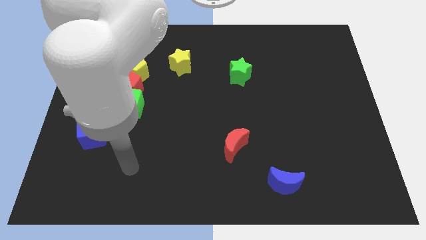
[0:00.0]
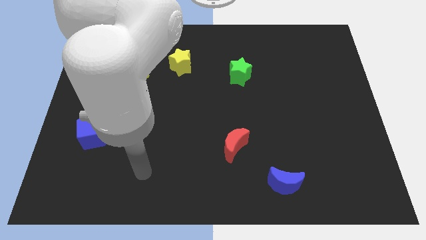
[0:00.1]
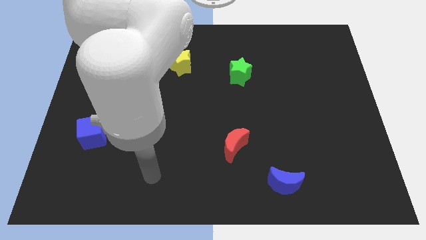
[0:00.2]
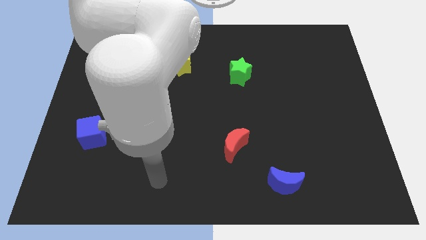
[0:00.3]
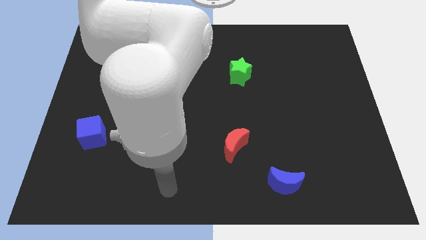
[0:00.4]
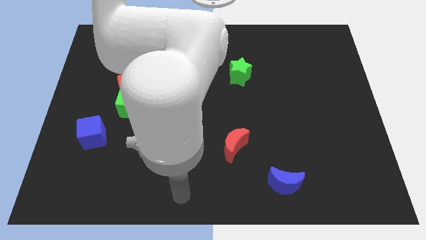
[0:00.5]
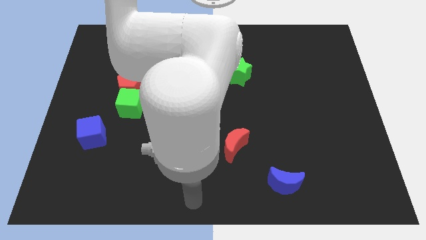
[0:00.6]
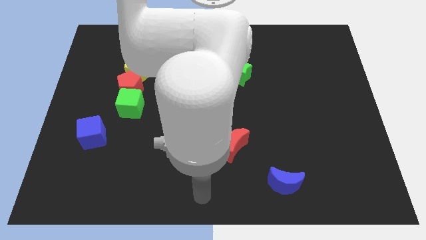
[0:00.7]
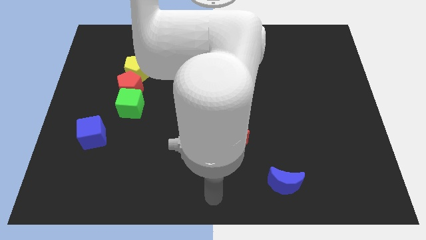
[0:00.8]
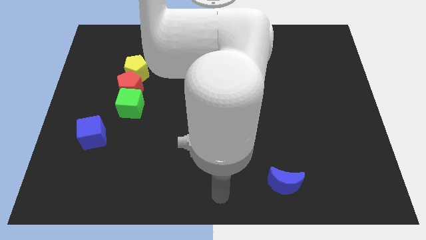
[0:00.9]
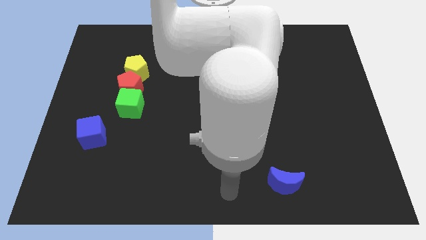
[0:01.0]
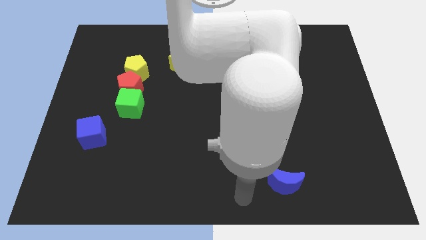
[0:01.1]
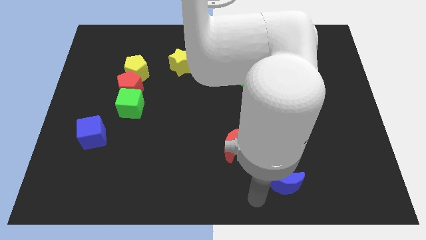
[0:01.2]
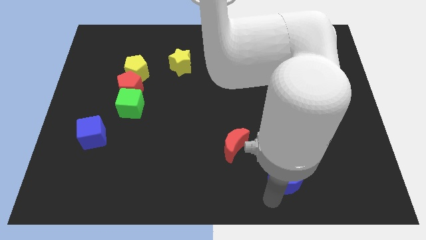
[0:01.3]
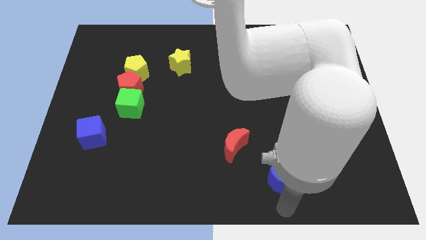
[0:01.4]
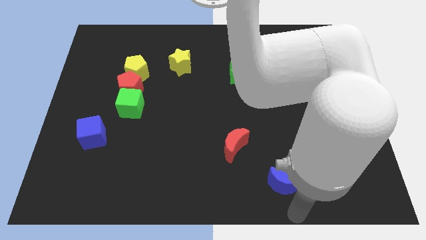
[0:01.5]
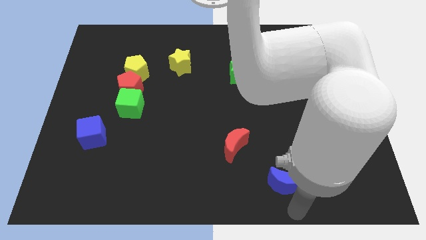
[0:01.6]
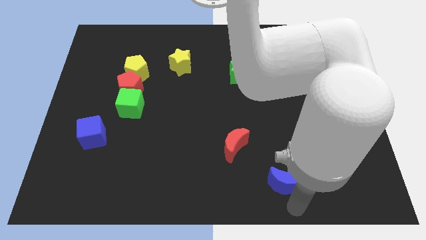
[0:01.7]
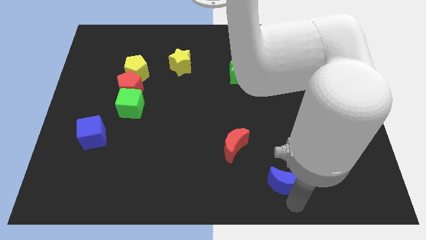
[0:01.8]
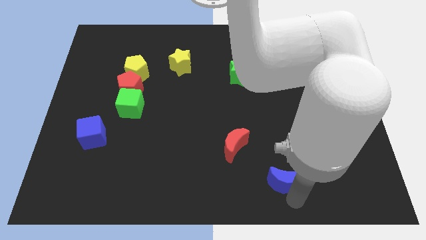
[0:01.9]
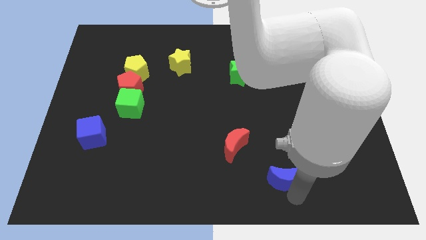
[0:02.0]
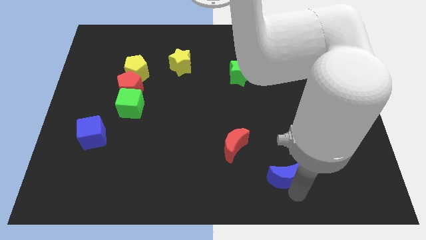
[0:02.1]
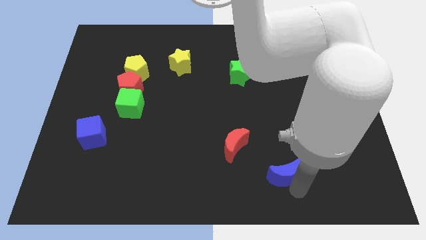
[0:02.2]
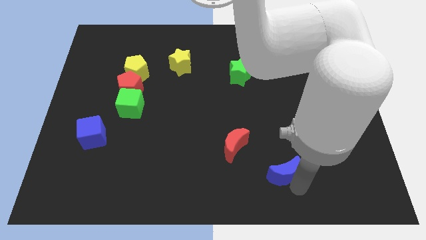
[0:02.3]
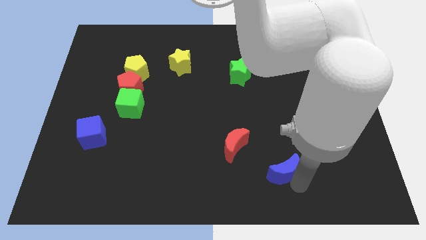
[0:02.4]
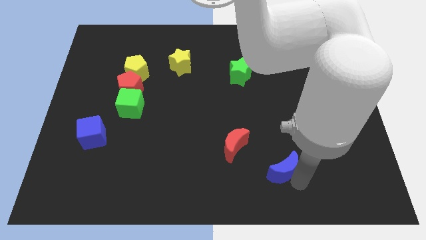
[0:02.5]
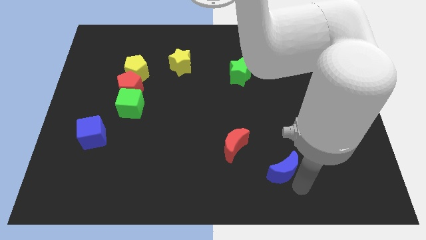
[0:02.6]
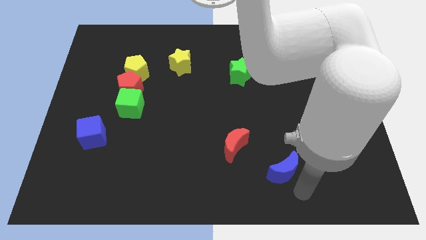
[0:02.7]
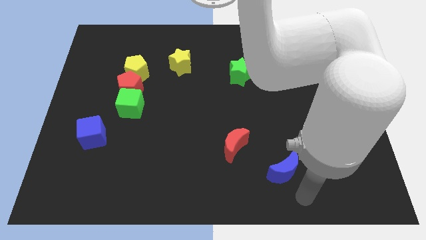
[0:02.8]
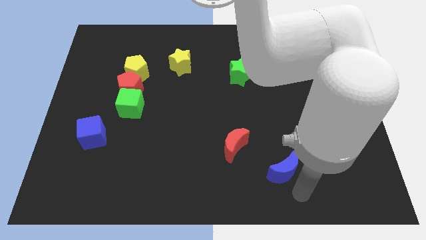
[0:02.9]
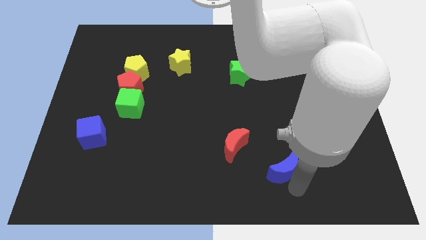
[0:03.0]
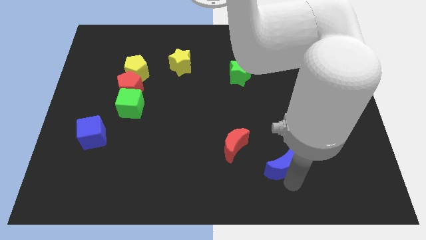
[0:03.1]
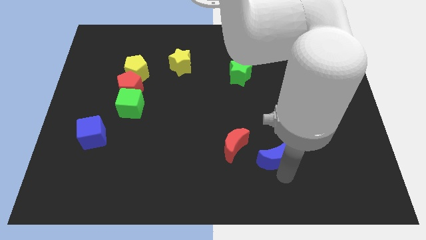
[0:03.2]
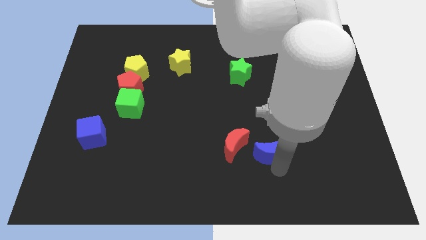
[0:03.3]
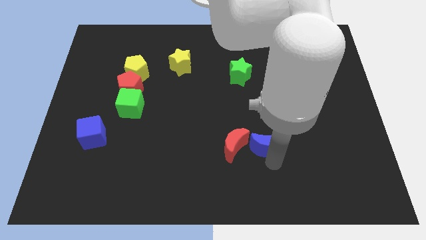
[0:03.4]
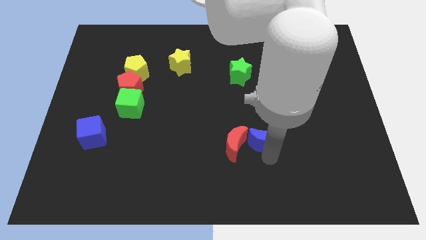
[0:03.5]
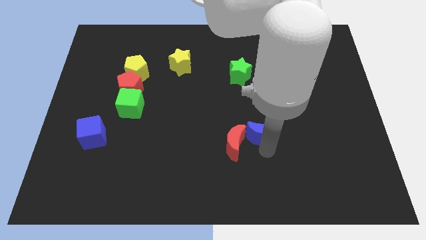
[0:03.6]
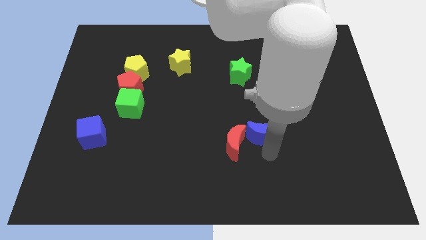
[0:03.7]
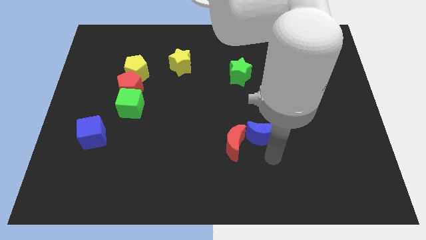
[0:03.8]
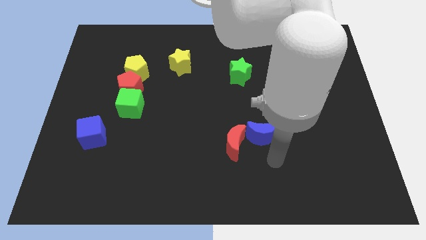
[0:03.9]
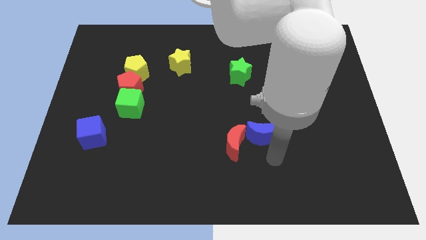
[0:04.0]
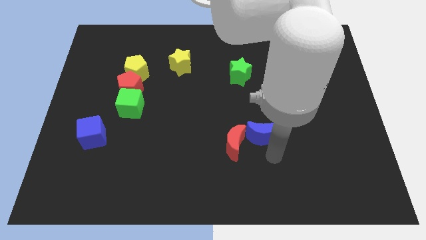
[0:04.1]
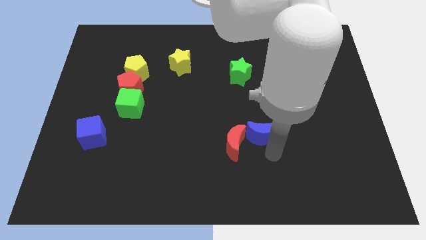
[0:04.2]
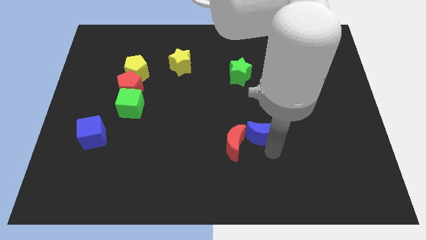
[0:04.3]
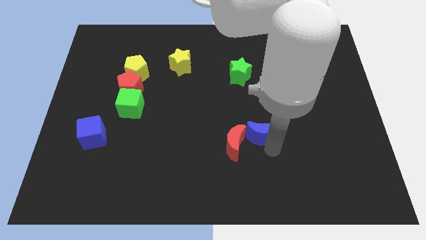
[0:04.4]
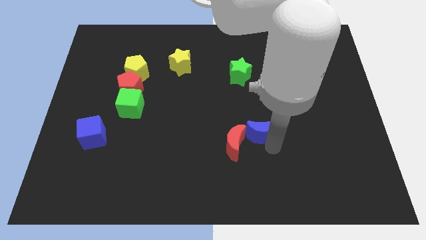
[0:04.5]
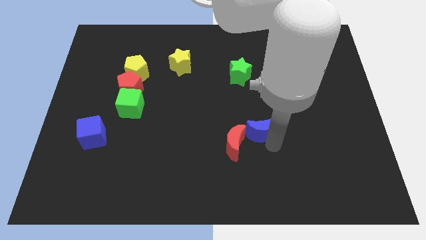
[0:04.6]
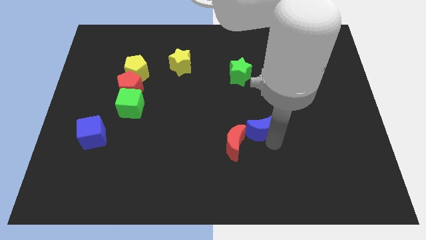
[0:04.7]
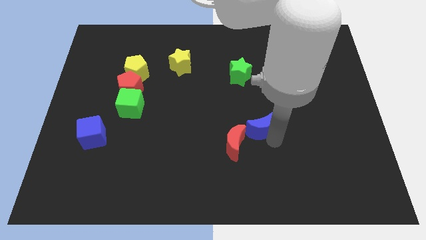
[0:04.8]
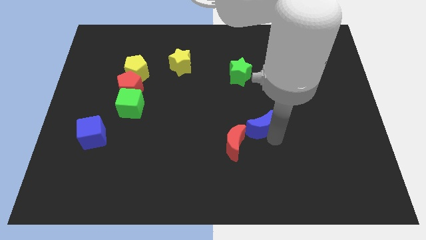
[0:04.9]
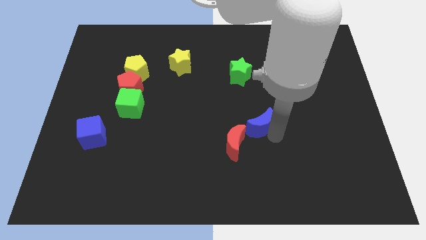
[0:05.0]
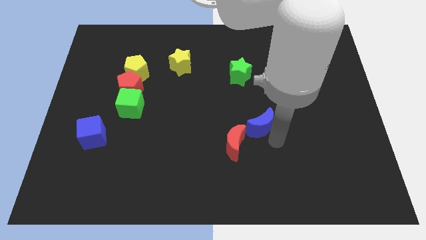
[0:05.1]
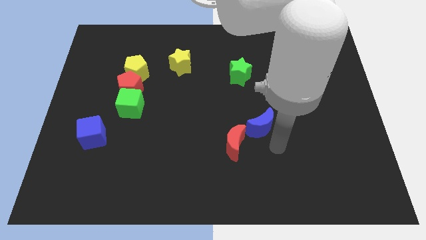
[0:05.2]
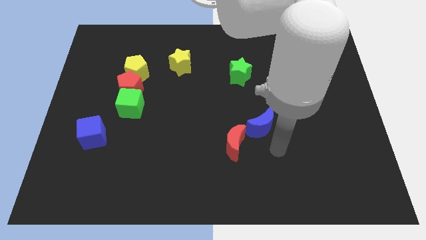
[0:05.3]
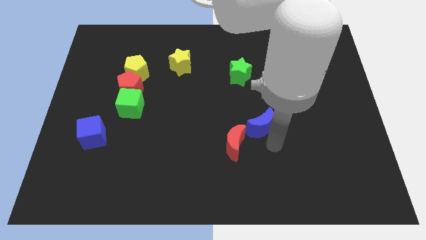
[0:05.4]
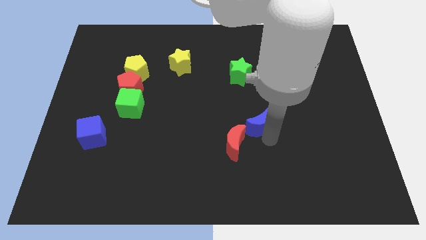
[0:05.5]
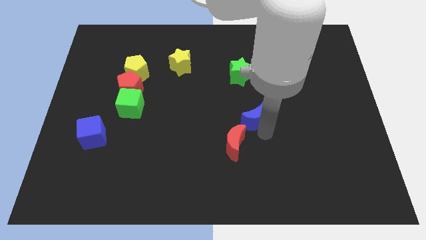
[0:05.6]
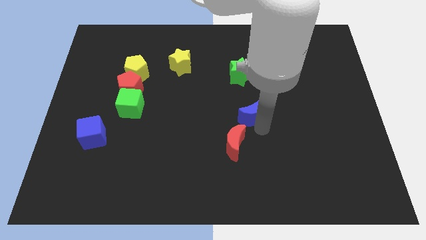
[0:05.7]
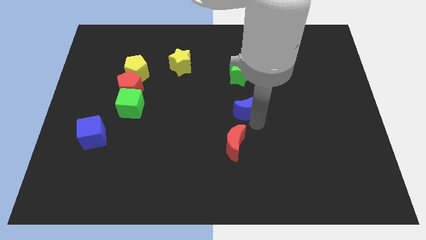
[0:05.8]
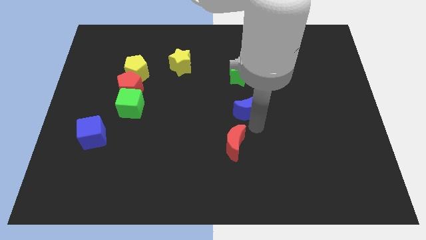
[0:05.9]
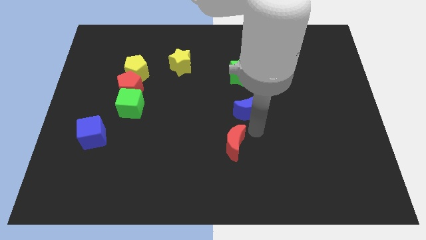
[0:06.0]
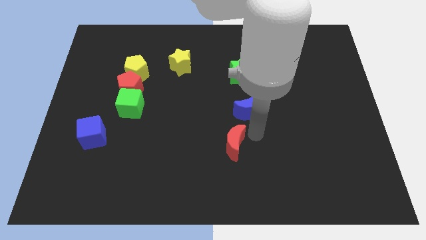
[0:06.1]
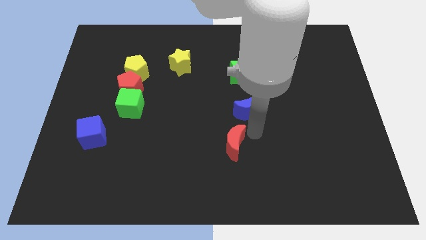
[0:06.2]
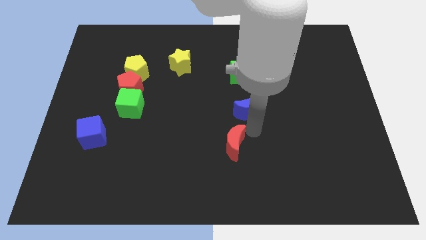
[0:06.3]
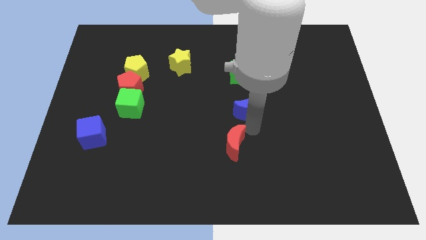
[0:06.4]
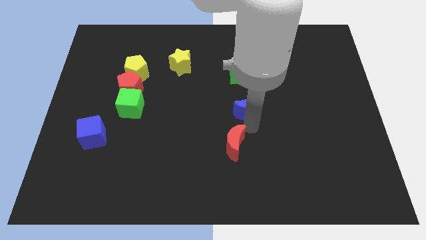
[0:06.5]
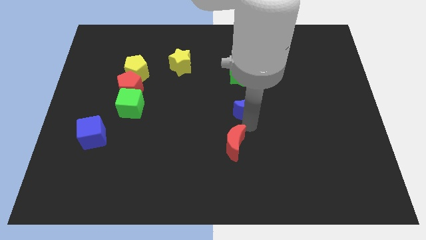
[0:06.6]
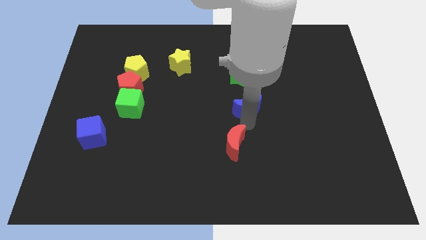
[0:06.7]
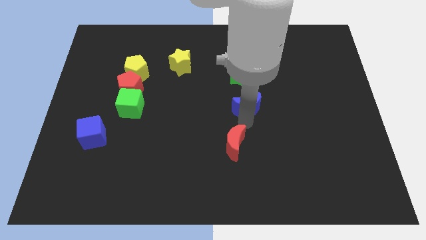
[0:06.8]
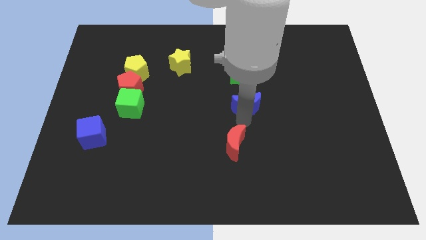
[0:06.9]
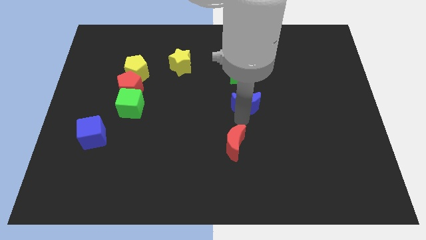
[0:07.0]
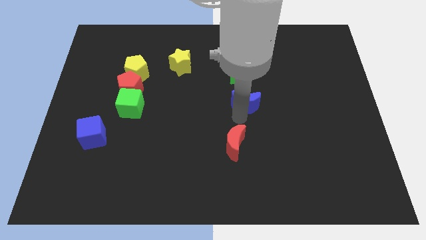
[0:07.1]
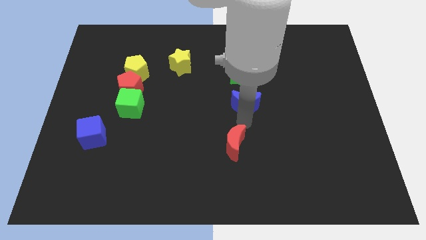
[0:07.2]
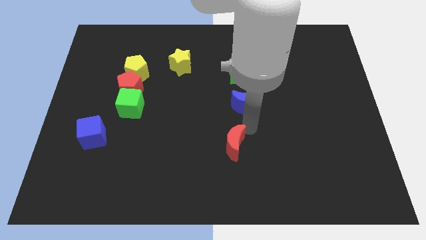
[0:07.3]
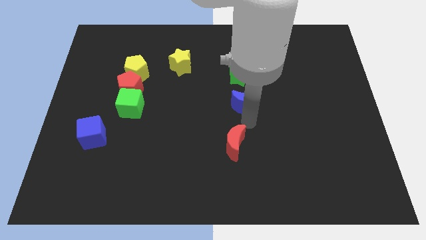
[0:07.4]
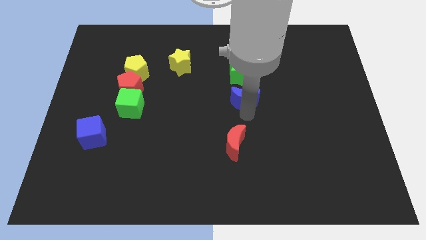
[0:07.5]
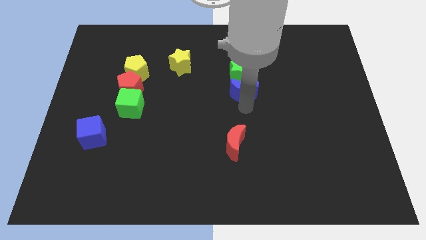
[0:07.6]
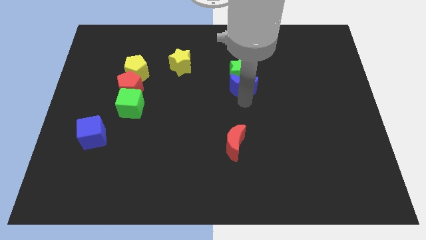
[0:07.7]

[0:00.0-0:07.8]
push the blue moon towards the green star
